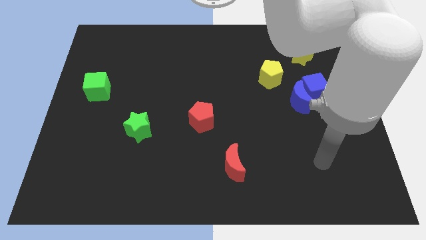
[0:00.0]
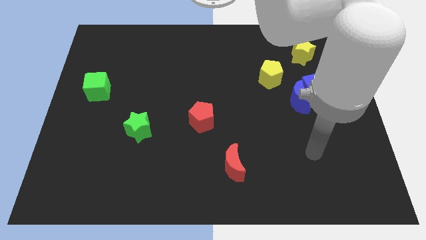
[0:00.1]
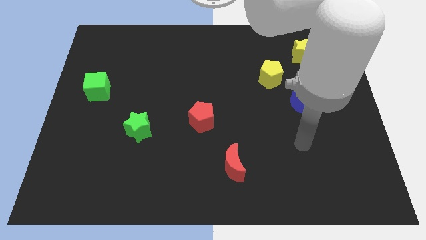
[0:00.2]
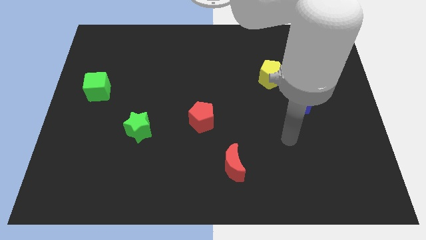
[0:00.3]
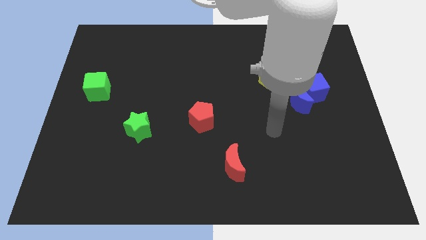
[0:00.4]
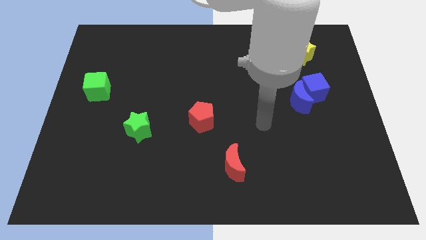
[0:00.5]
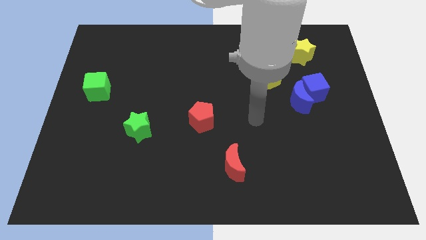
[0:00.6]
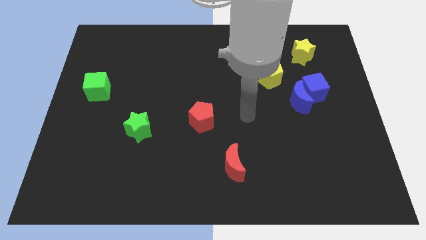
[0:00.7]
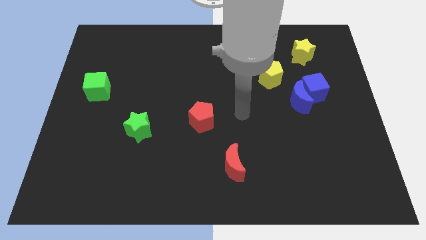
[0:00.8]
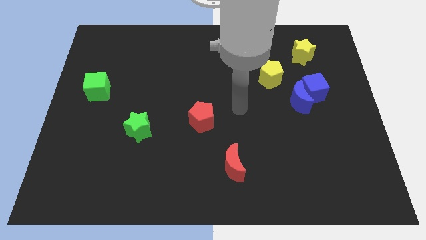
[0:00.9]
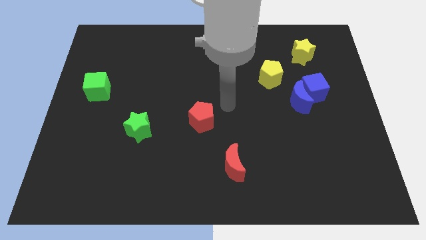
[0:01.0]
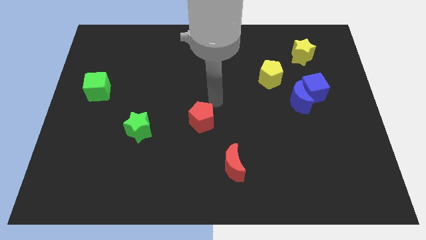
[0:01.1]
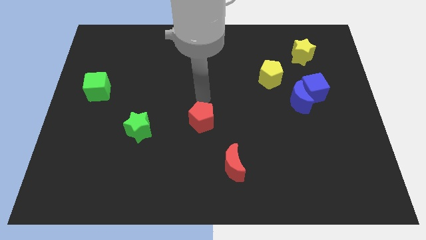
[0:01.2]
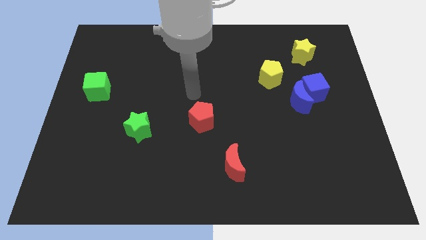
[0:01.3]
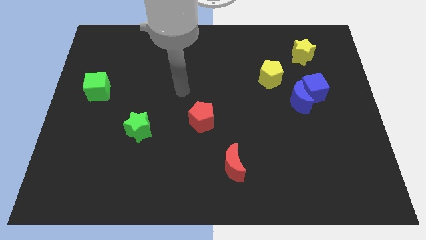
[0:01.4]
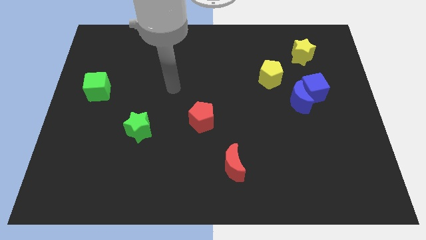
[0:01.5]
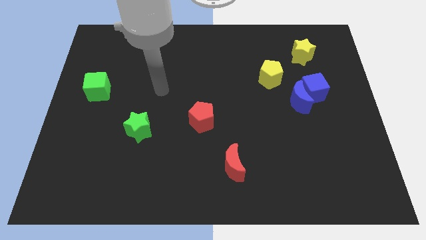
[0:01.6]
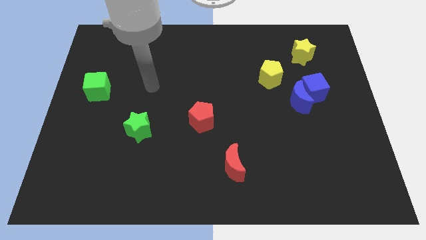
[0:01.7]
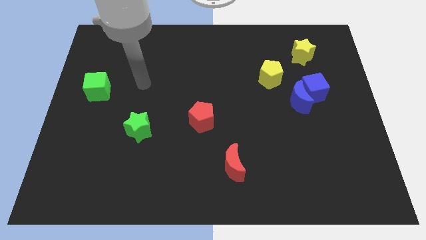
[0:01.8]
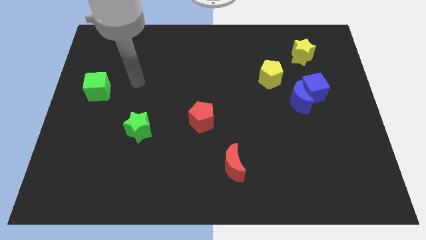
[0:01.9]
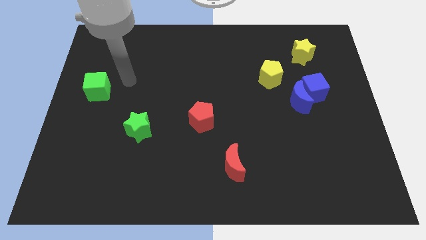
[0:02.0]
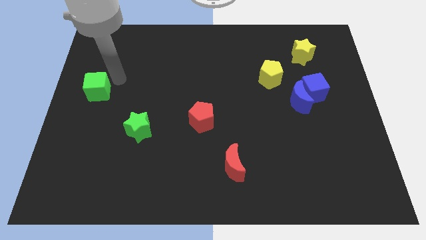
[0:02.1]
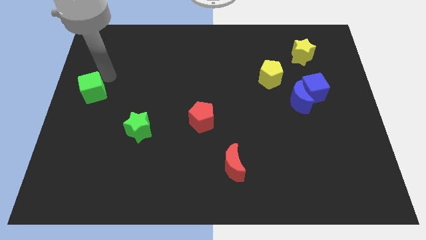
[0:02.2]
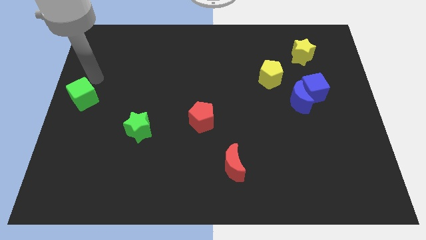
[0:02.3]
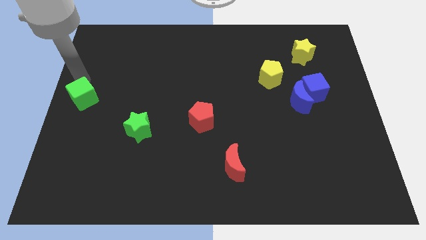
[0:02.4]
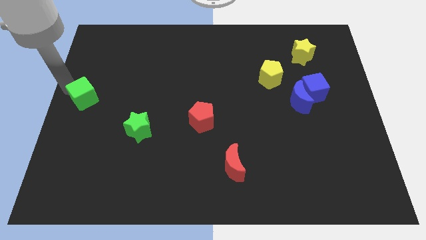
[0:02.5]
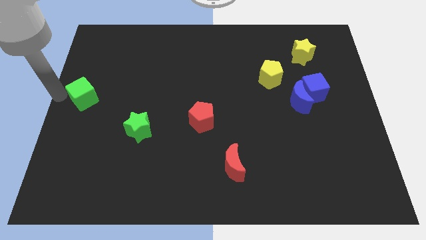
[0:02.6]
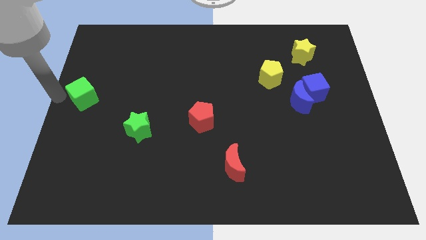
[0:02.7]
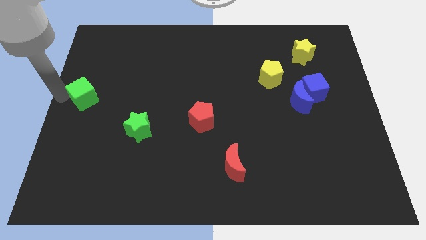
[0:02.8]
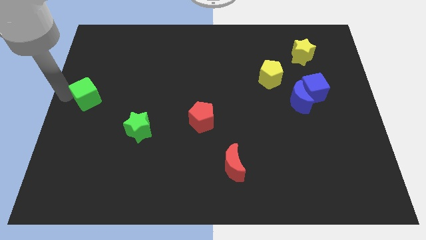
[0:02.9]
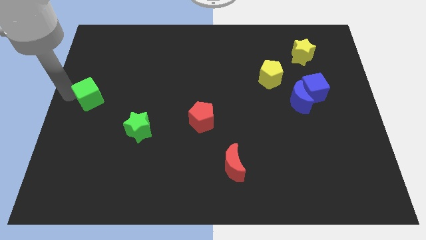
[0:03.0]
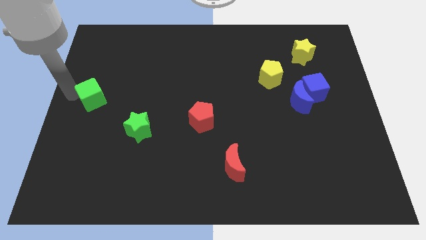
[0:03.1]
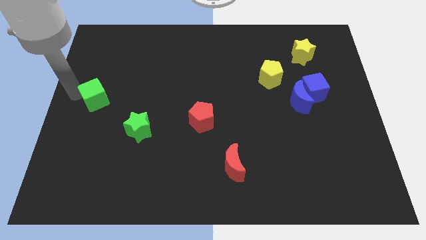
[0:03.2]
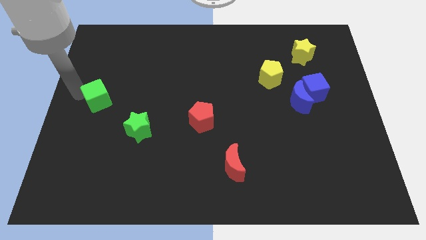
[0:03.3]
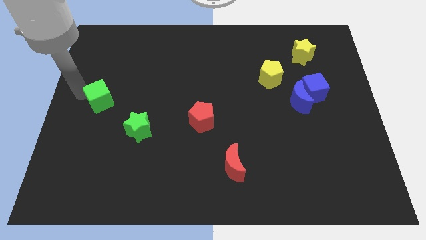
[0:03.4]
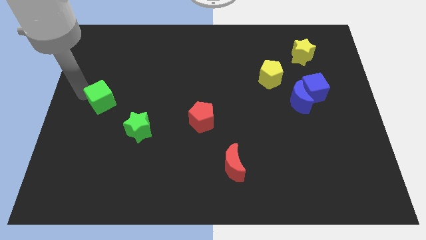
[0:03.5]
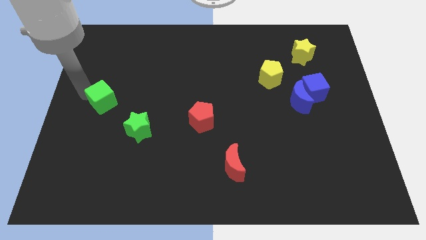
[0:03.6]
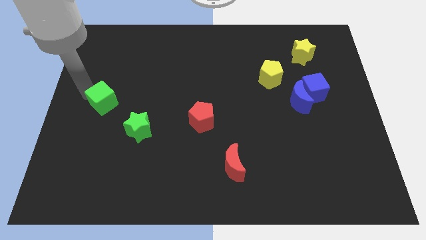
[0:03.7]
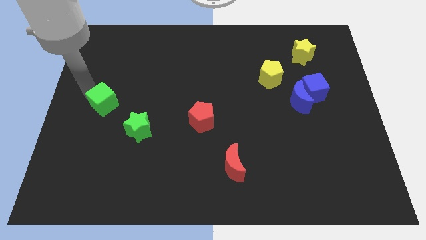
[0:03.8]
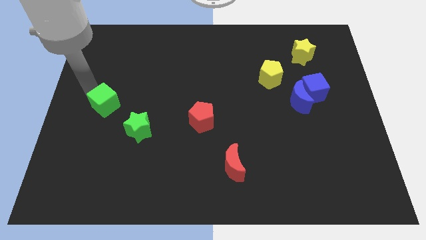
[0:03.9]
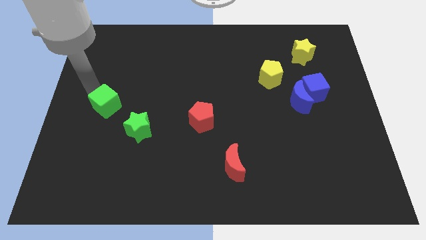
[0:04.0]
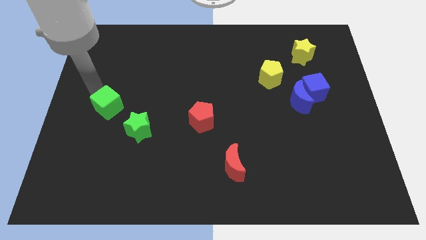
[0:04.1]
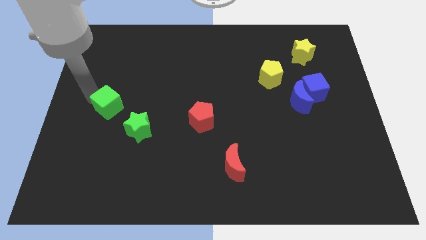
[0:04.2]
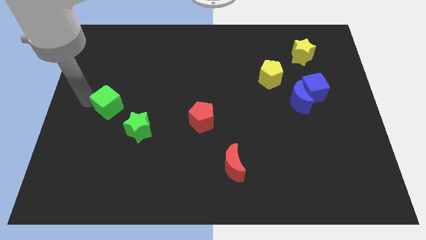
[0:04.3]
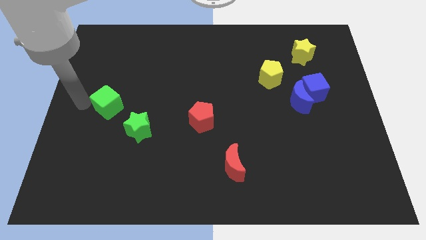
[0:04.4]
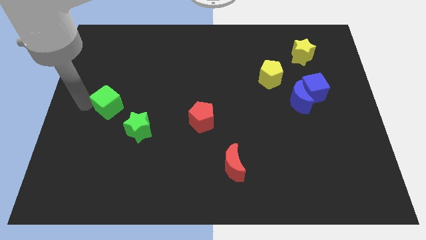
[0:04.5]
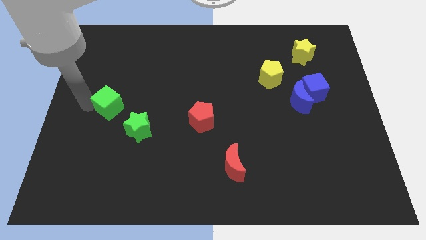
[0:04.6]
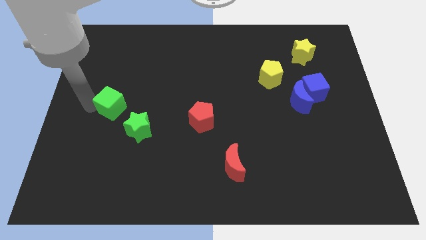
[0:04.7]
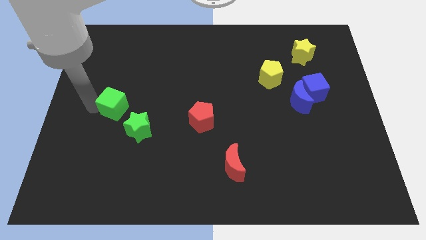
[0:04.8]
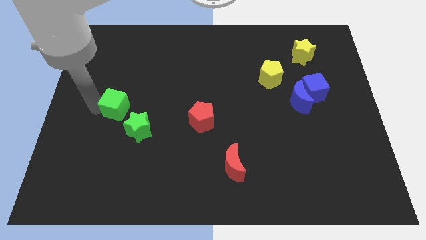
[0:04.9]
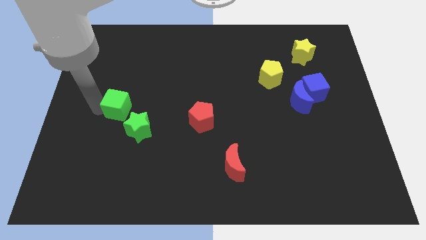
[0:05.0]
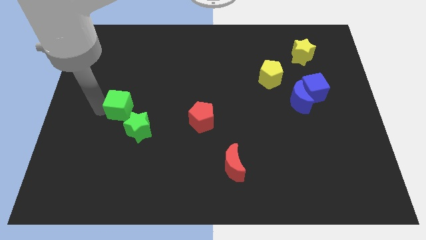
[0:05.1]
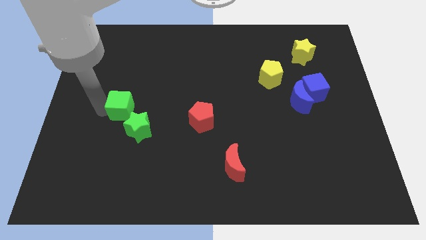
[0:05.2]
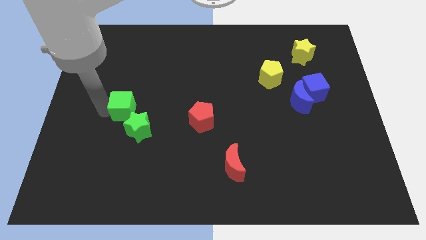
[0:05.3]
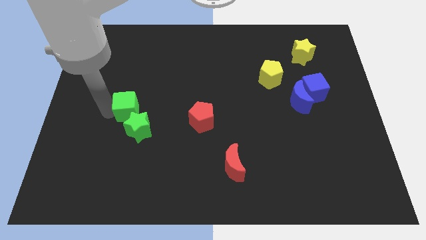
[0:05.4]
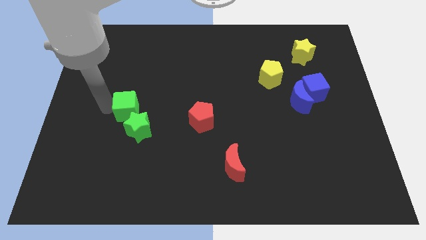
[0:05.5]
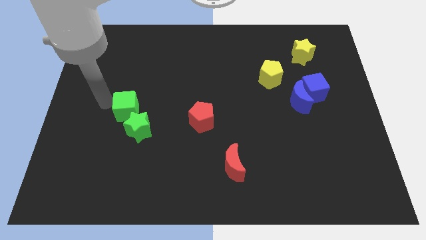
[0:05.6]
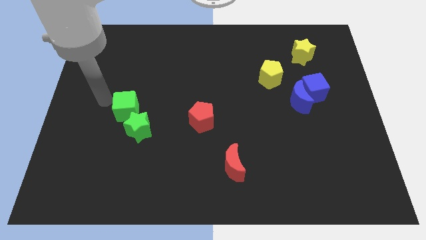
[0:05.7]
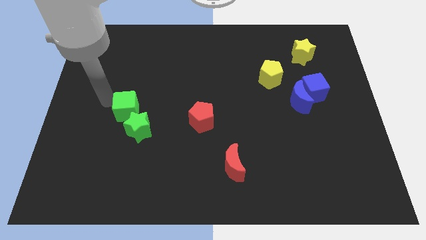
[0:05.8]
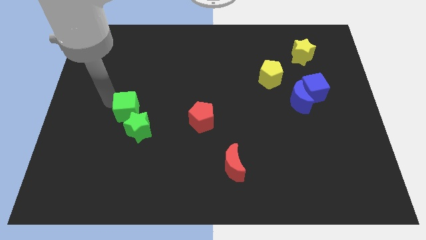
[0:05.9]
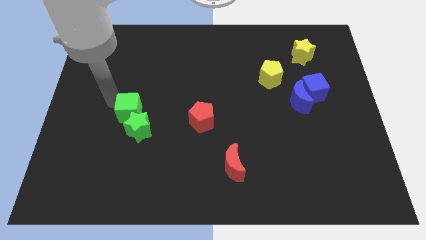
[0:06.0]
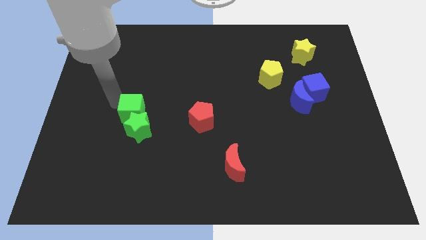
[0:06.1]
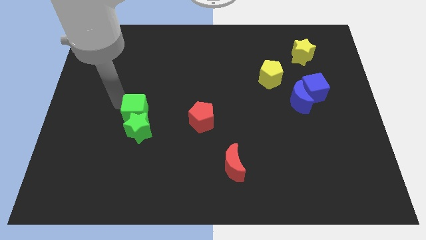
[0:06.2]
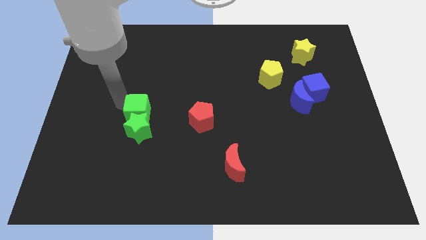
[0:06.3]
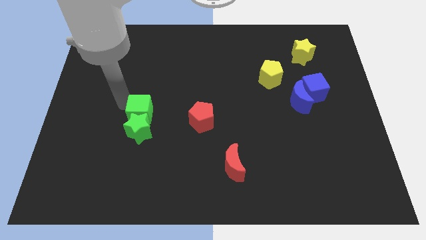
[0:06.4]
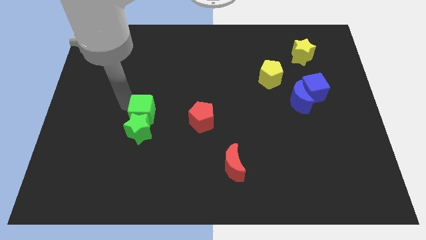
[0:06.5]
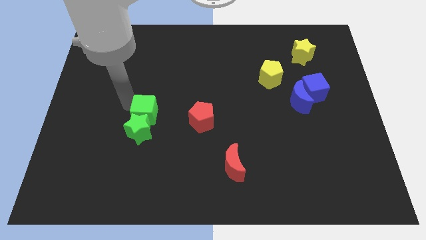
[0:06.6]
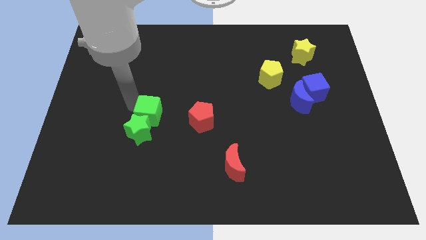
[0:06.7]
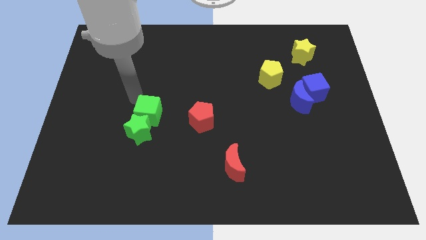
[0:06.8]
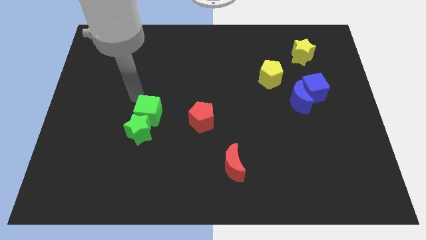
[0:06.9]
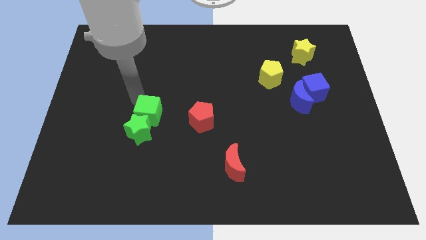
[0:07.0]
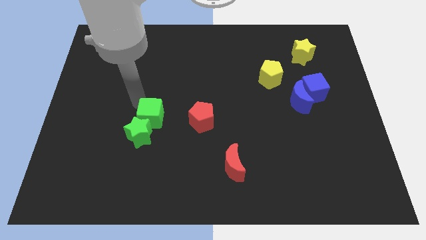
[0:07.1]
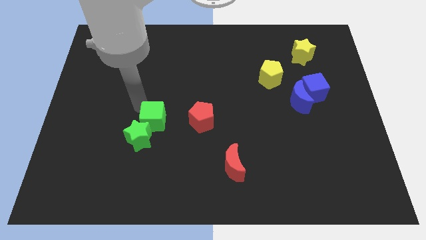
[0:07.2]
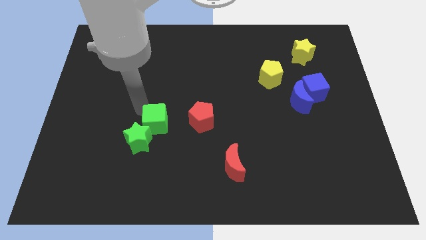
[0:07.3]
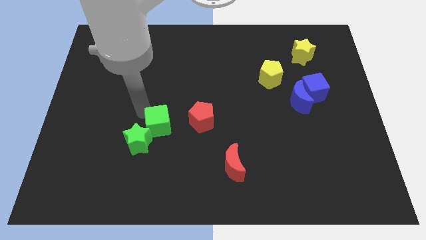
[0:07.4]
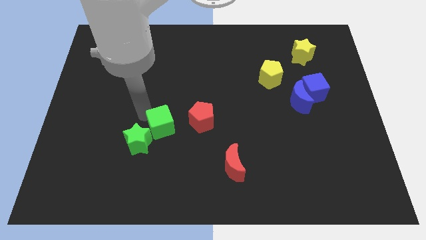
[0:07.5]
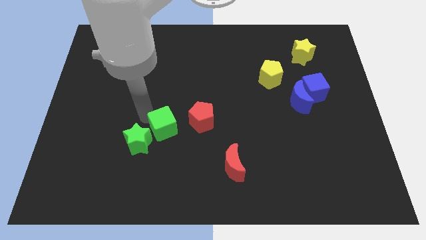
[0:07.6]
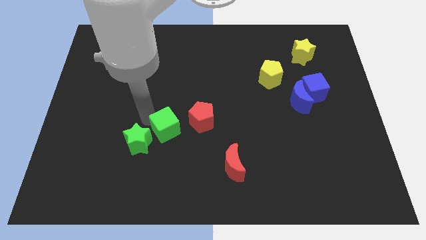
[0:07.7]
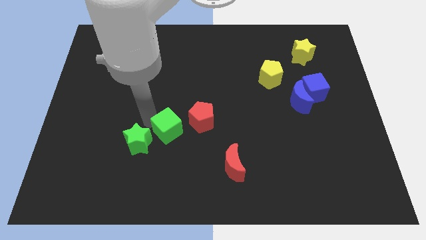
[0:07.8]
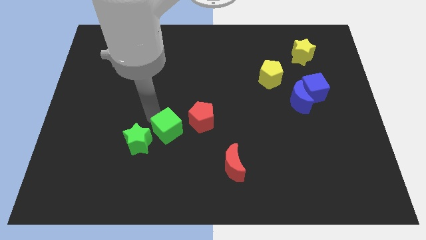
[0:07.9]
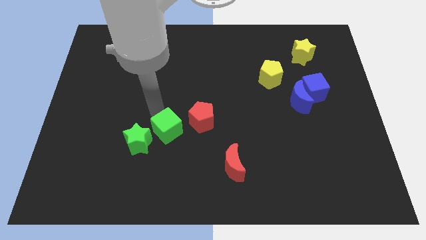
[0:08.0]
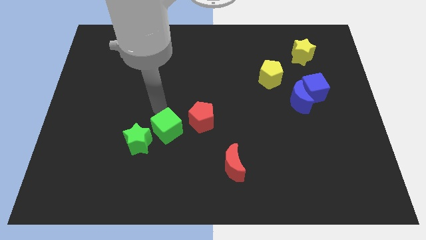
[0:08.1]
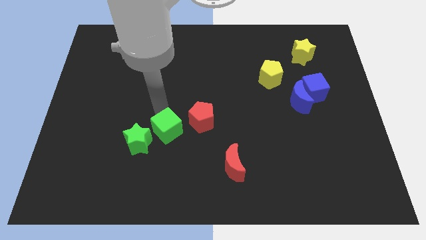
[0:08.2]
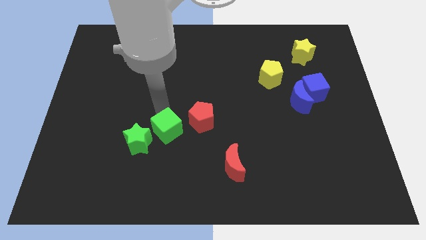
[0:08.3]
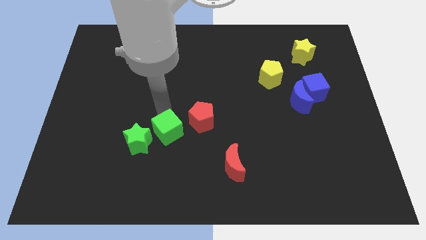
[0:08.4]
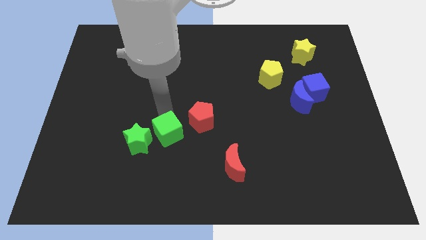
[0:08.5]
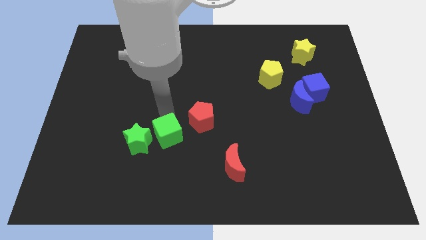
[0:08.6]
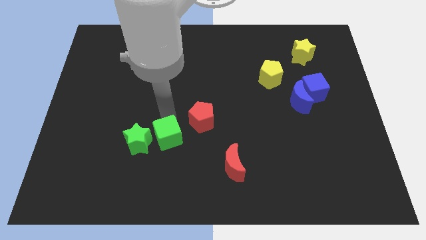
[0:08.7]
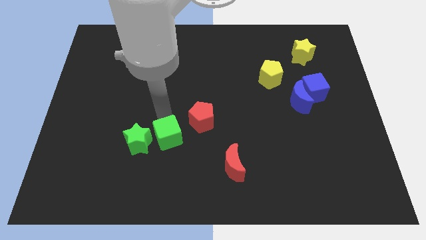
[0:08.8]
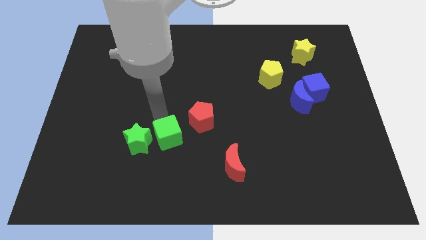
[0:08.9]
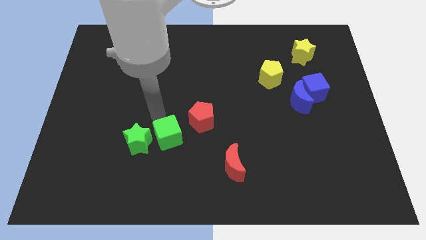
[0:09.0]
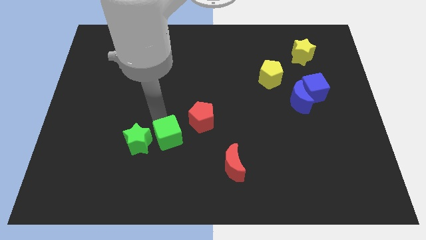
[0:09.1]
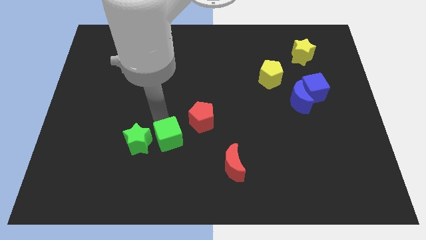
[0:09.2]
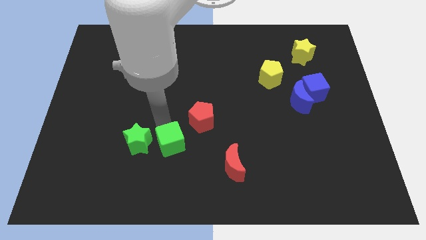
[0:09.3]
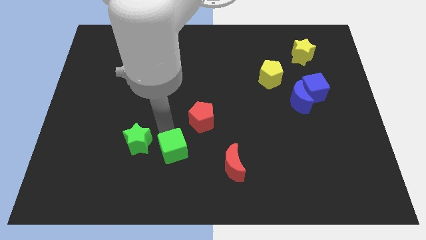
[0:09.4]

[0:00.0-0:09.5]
slide the green cube just left of the red moon
